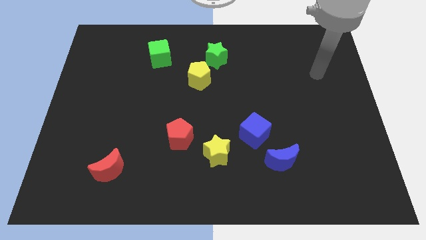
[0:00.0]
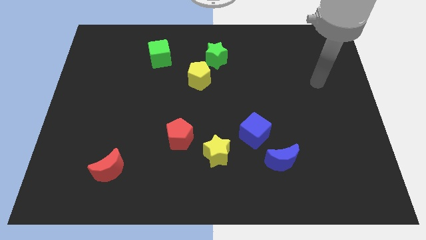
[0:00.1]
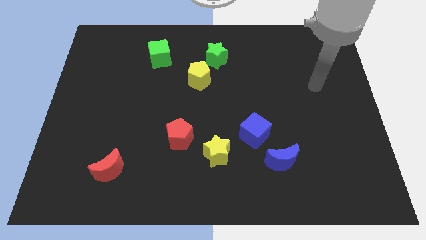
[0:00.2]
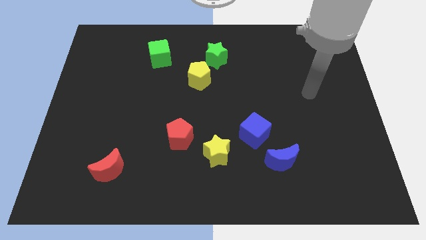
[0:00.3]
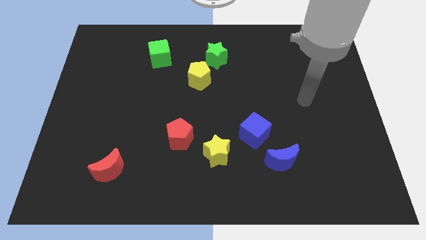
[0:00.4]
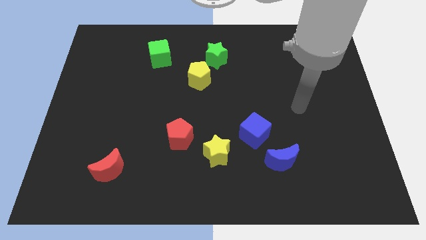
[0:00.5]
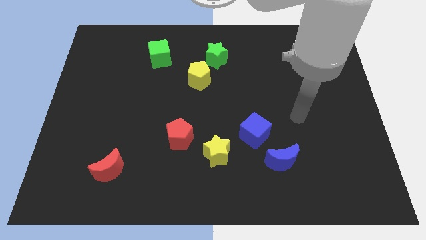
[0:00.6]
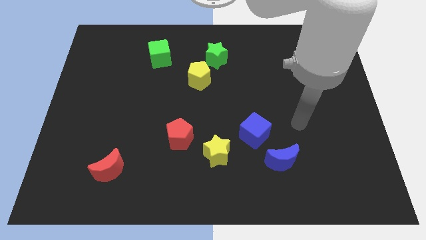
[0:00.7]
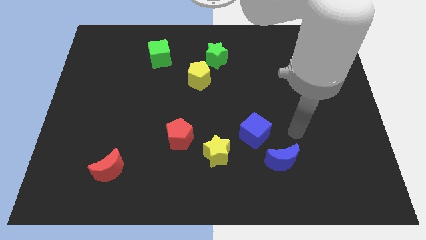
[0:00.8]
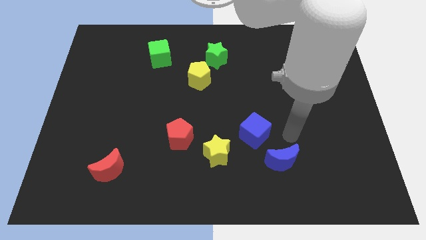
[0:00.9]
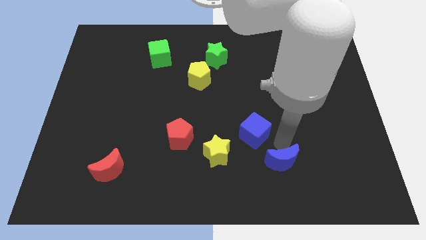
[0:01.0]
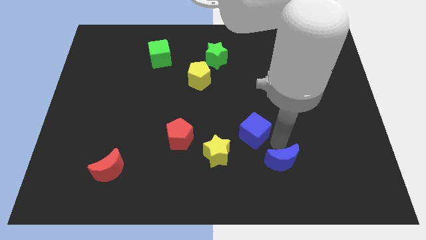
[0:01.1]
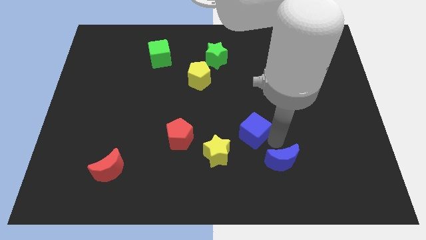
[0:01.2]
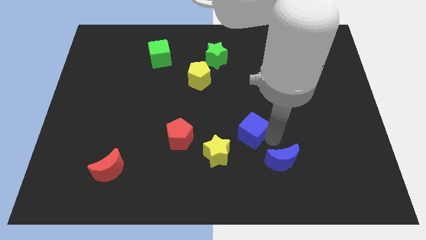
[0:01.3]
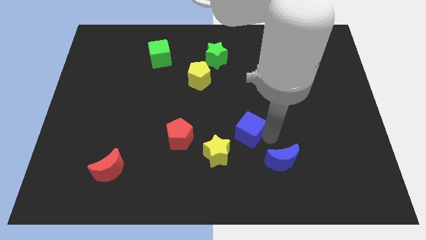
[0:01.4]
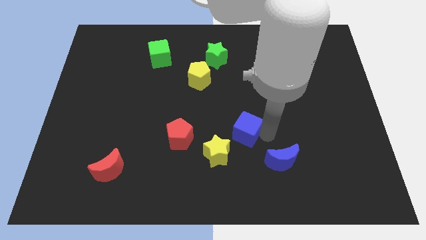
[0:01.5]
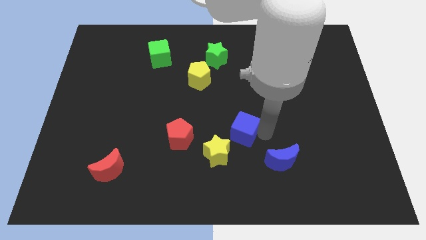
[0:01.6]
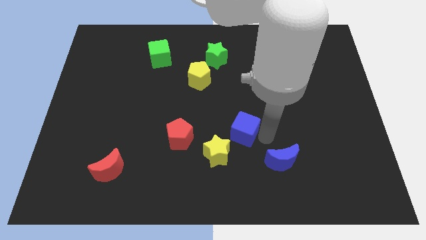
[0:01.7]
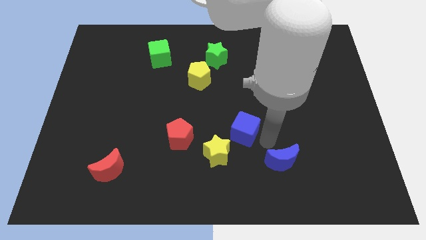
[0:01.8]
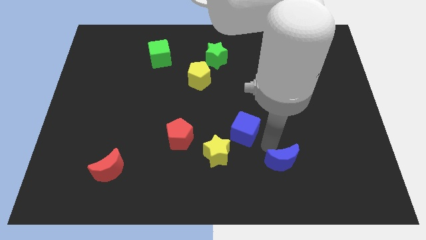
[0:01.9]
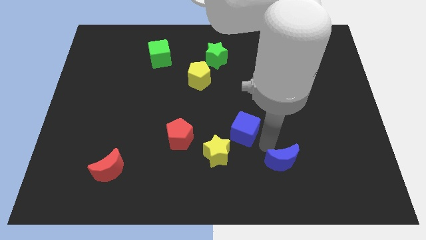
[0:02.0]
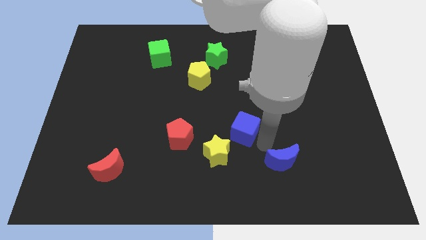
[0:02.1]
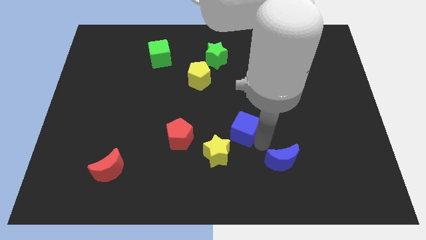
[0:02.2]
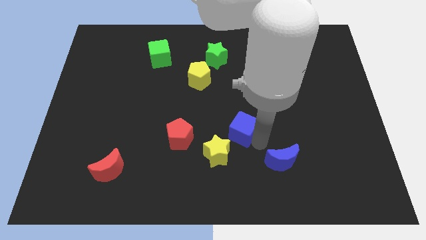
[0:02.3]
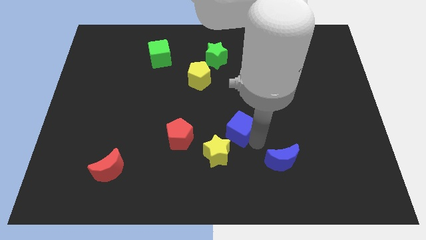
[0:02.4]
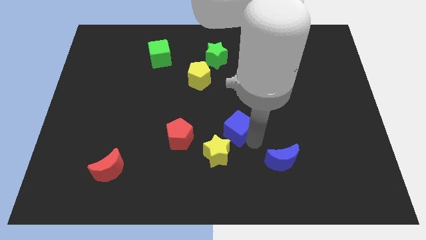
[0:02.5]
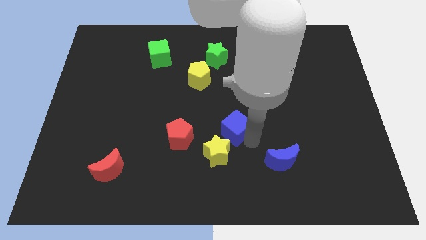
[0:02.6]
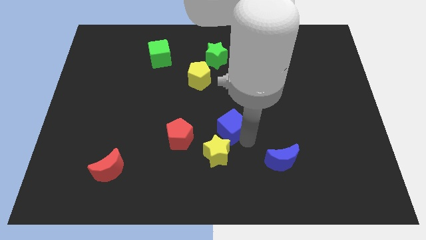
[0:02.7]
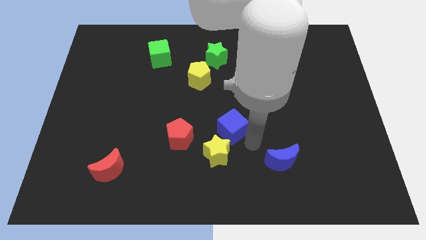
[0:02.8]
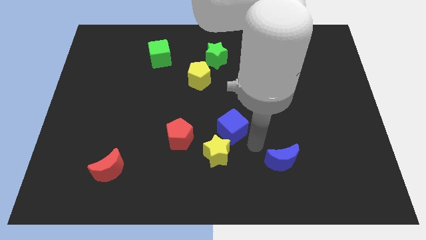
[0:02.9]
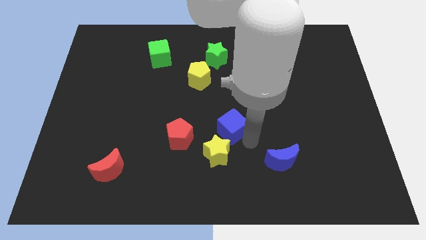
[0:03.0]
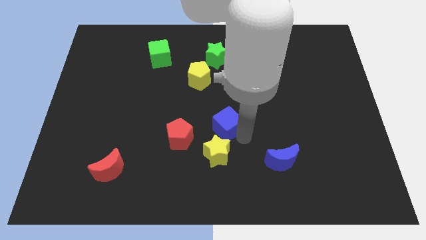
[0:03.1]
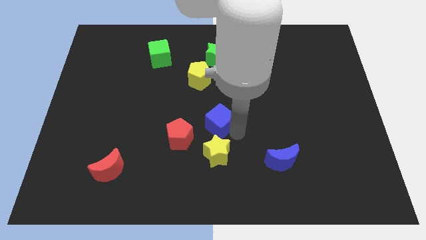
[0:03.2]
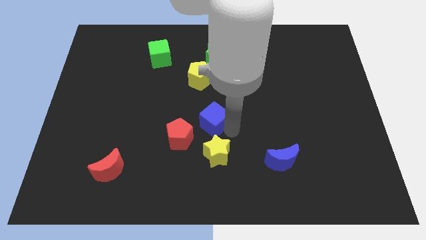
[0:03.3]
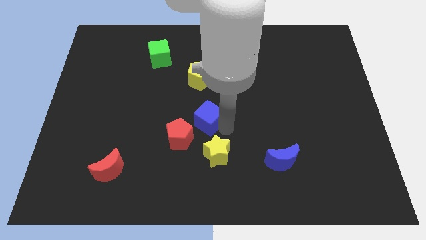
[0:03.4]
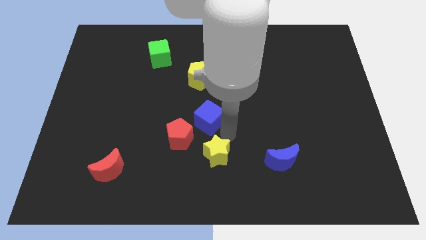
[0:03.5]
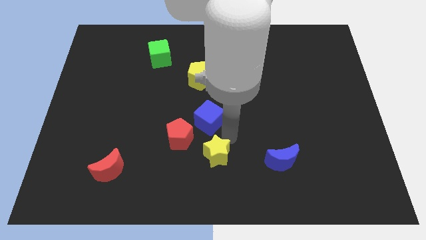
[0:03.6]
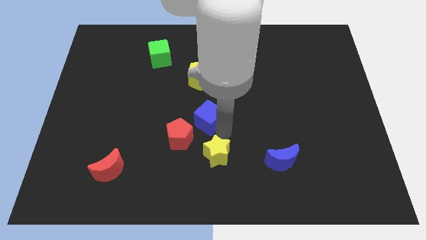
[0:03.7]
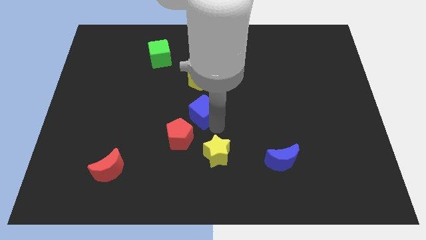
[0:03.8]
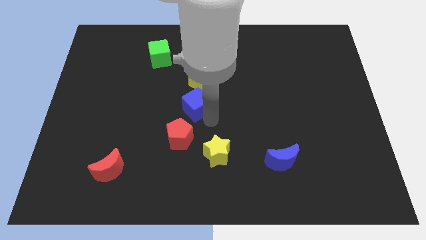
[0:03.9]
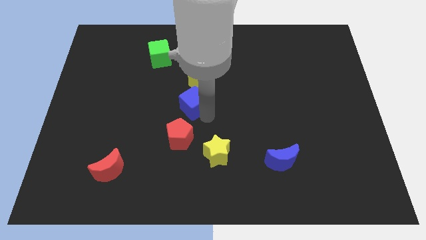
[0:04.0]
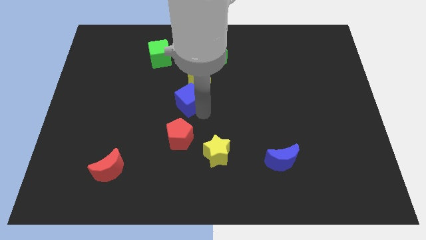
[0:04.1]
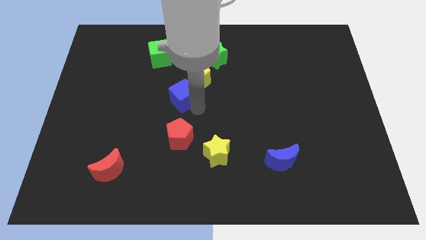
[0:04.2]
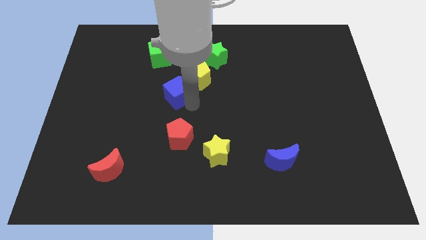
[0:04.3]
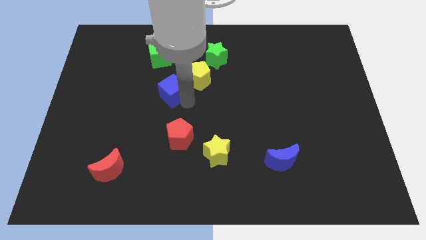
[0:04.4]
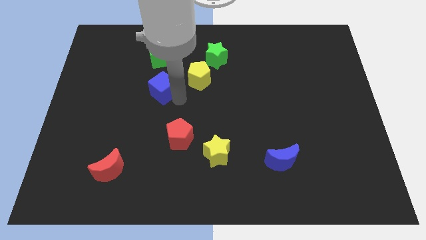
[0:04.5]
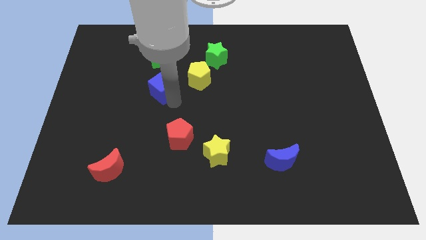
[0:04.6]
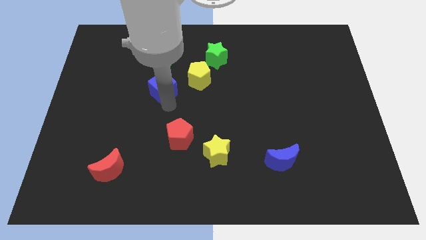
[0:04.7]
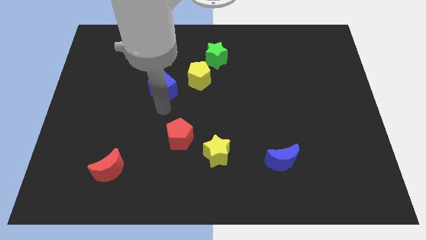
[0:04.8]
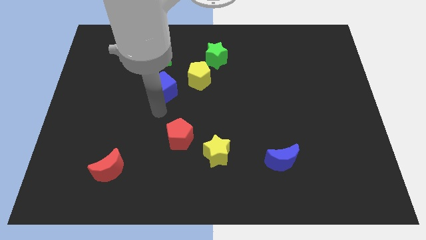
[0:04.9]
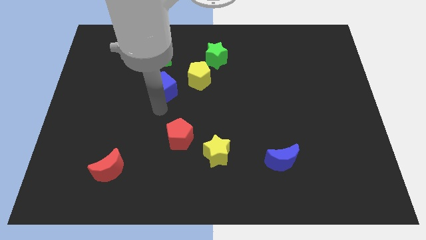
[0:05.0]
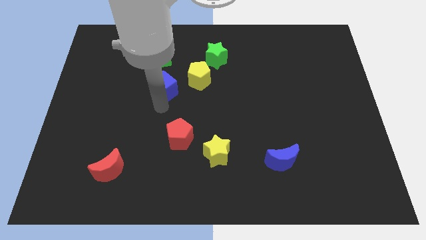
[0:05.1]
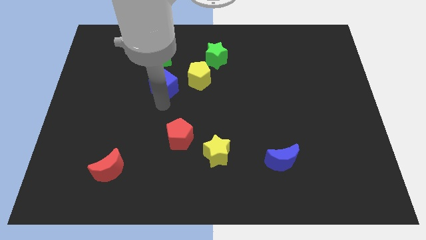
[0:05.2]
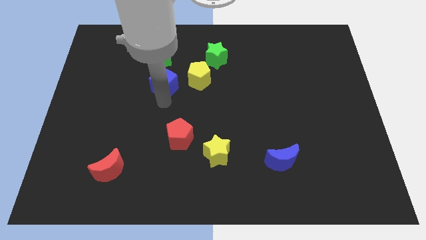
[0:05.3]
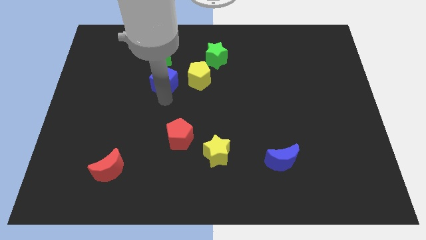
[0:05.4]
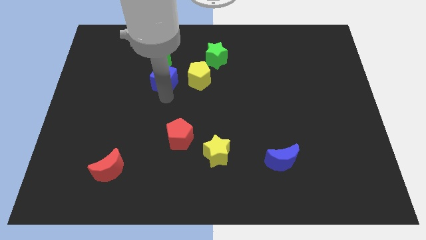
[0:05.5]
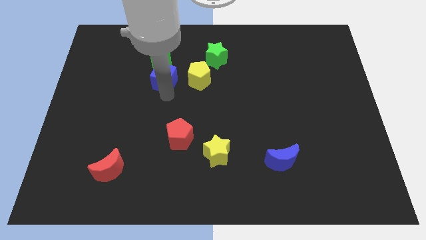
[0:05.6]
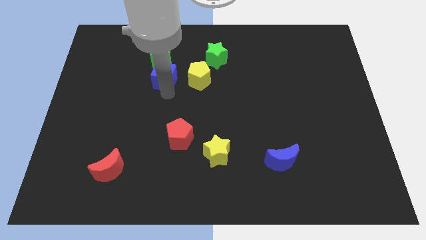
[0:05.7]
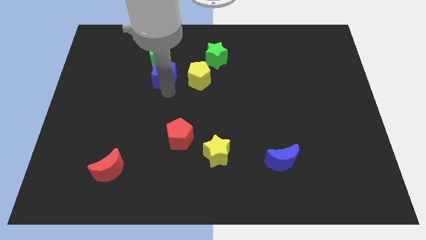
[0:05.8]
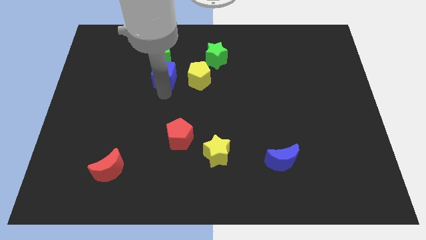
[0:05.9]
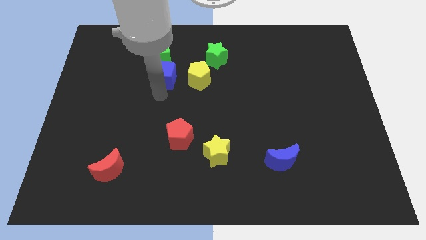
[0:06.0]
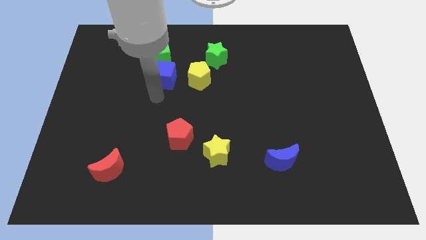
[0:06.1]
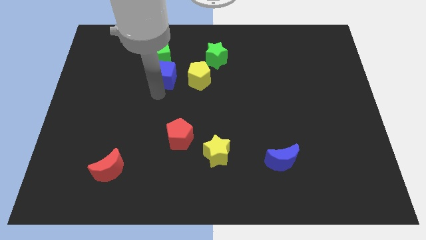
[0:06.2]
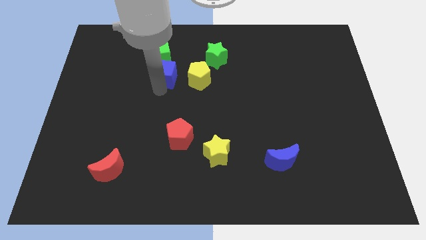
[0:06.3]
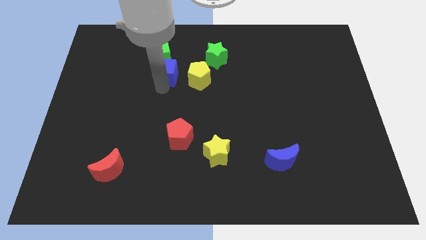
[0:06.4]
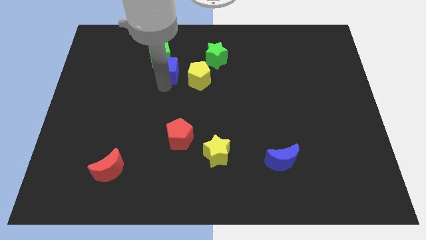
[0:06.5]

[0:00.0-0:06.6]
put the blue cube next to the green cube

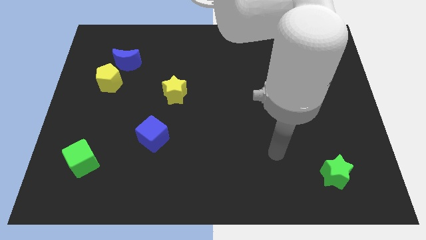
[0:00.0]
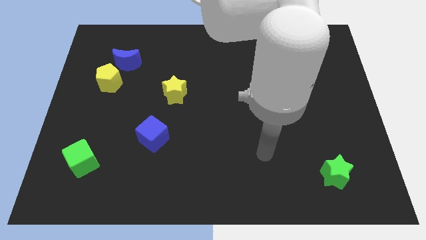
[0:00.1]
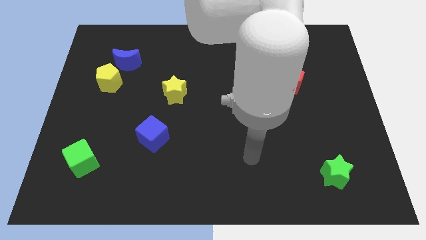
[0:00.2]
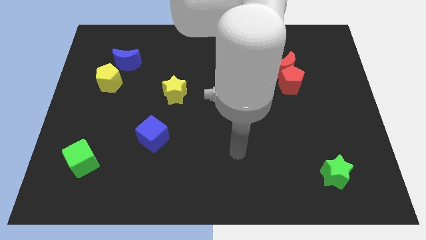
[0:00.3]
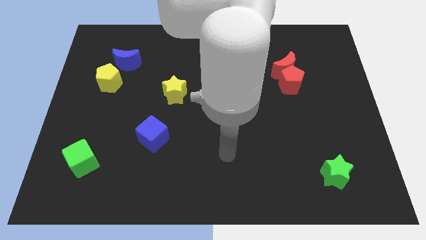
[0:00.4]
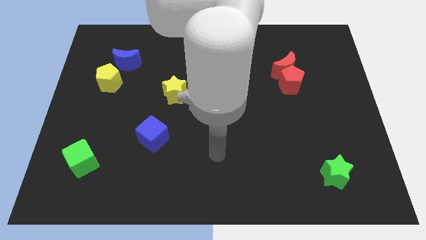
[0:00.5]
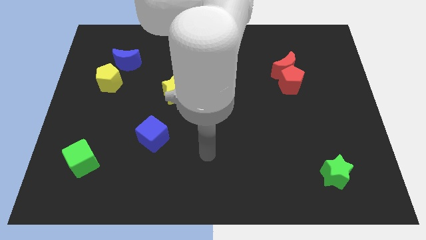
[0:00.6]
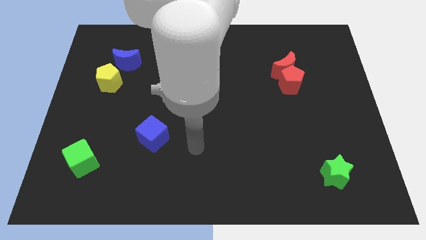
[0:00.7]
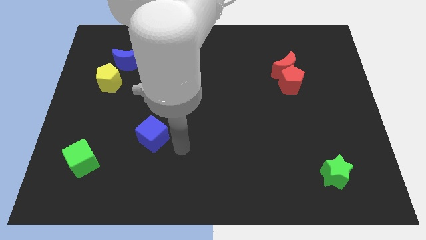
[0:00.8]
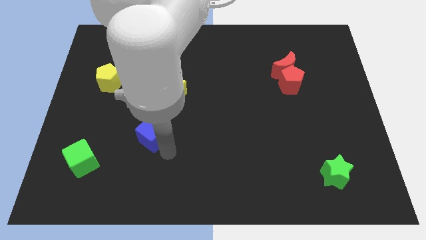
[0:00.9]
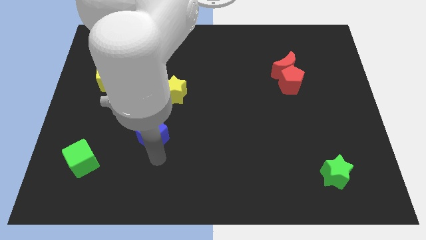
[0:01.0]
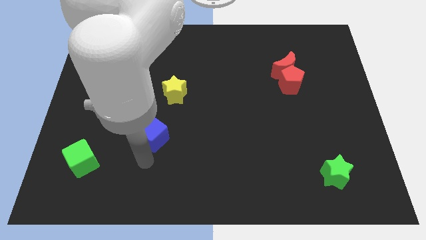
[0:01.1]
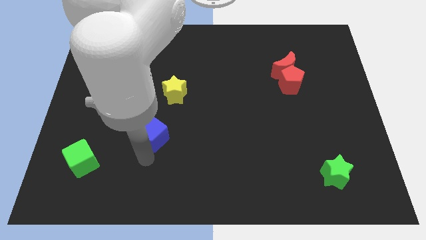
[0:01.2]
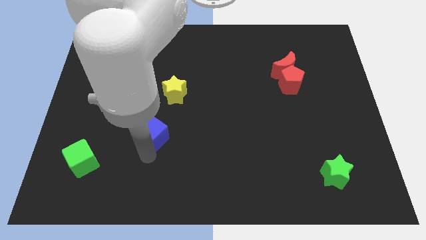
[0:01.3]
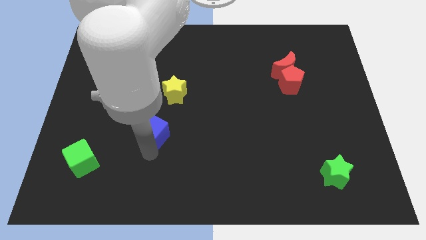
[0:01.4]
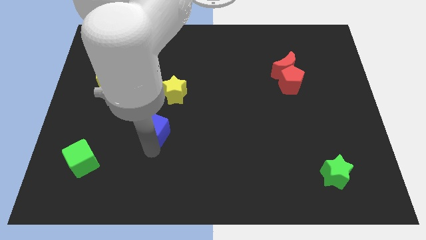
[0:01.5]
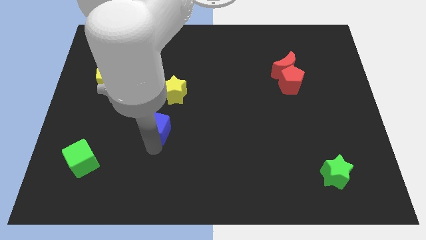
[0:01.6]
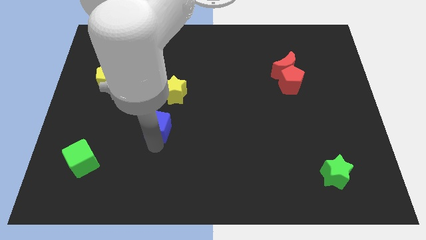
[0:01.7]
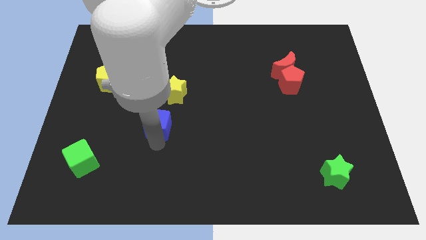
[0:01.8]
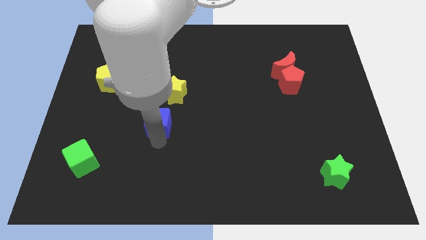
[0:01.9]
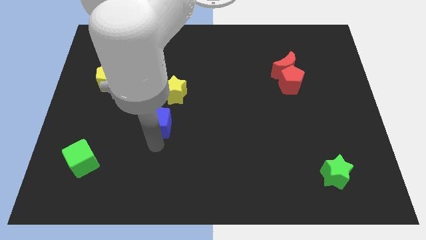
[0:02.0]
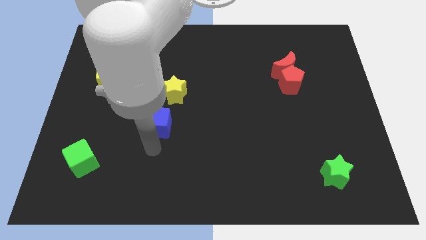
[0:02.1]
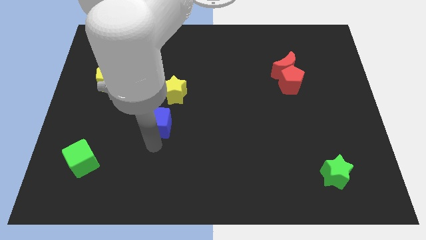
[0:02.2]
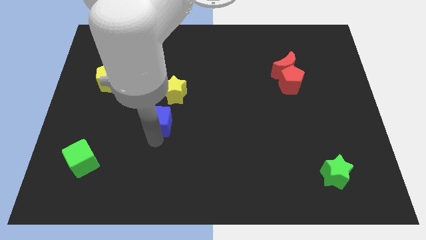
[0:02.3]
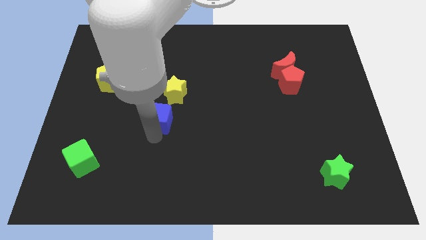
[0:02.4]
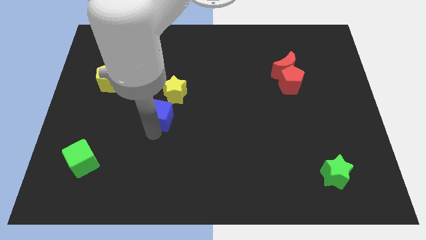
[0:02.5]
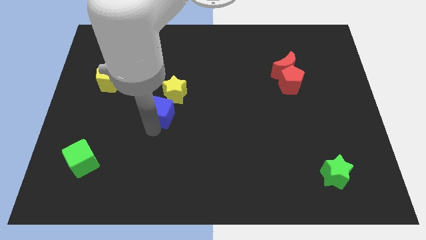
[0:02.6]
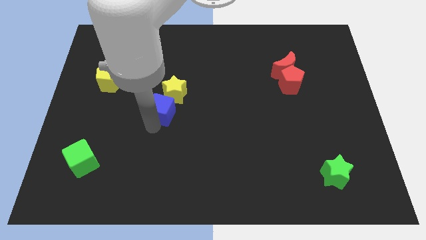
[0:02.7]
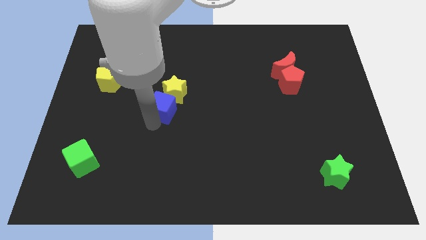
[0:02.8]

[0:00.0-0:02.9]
push the blue cube close to the yellow star
